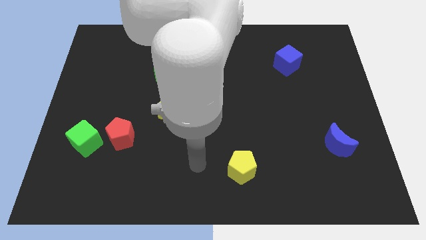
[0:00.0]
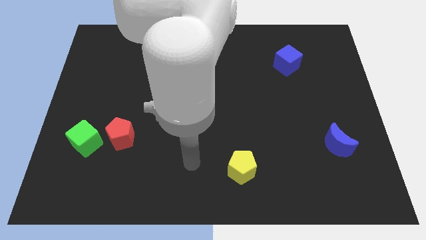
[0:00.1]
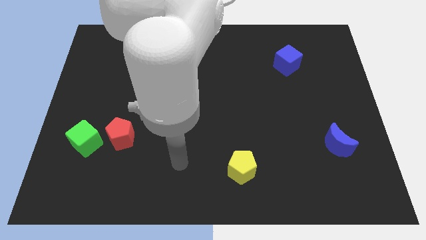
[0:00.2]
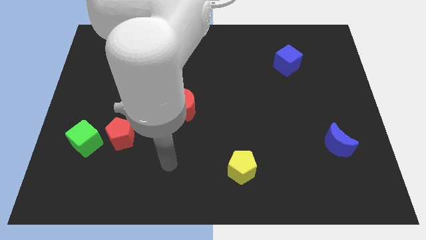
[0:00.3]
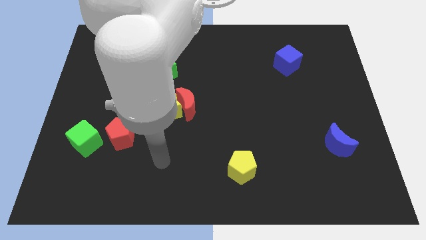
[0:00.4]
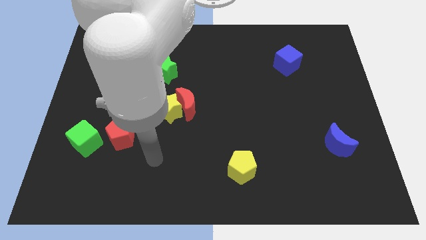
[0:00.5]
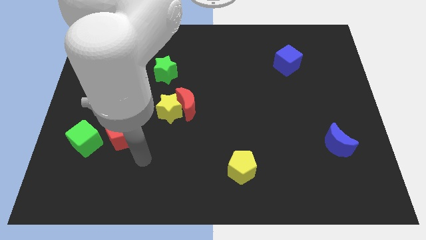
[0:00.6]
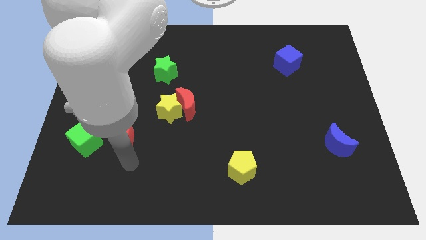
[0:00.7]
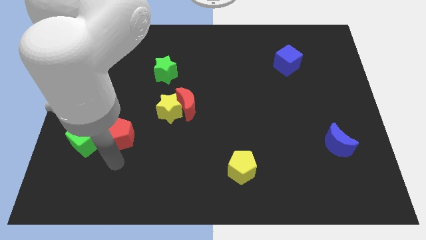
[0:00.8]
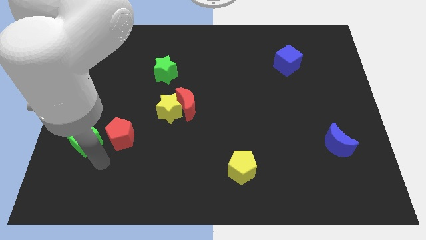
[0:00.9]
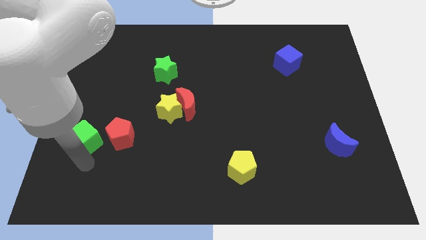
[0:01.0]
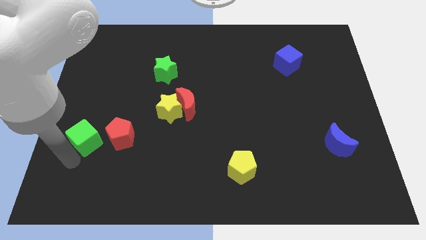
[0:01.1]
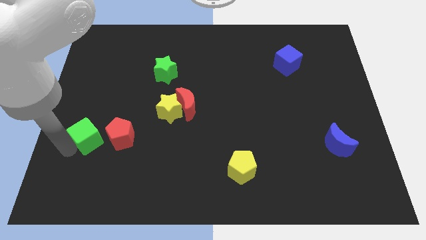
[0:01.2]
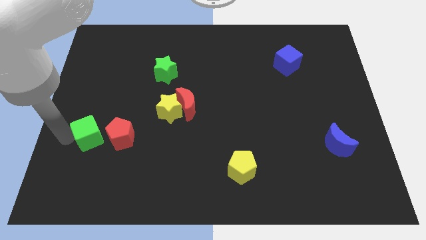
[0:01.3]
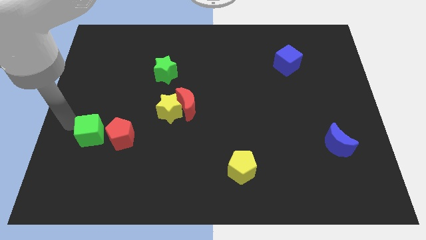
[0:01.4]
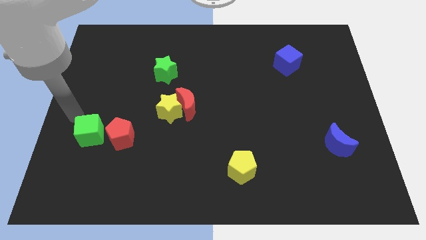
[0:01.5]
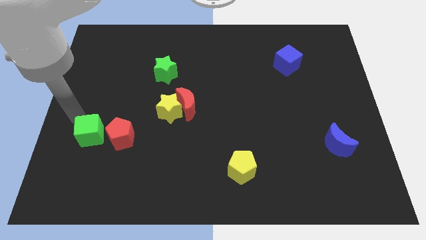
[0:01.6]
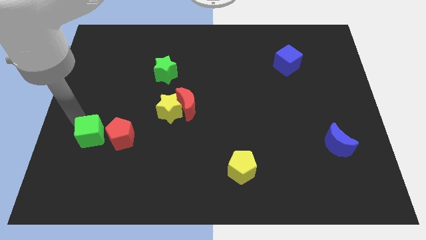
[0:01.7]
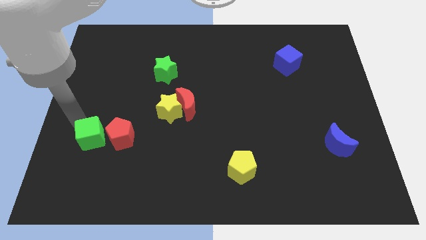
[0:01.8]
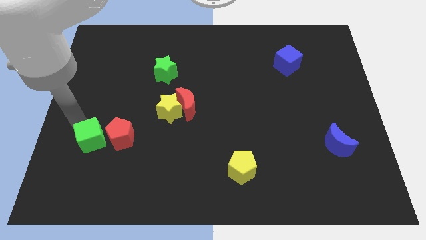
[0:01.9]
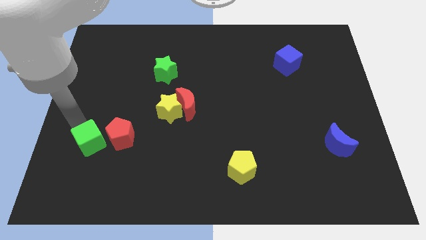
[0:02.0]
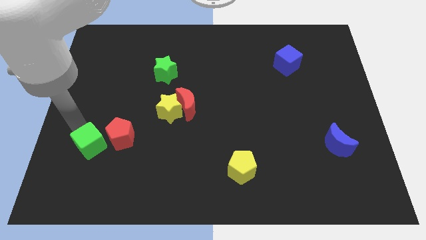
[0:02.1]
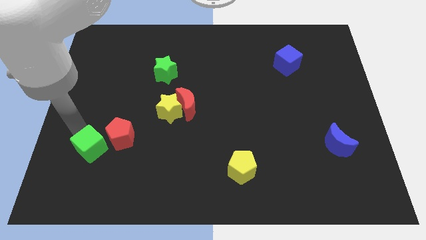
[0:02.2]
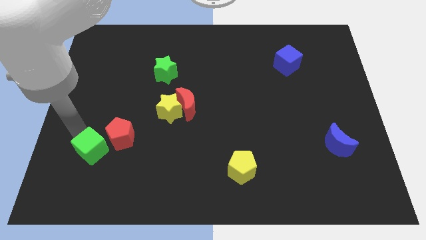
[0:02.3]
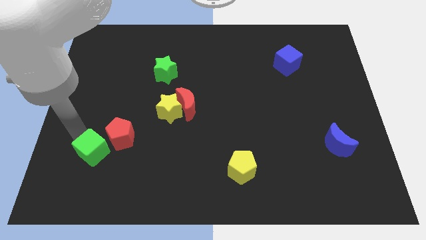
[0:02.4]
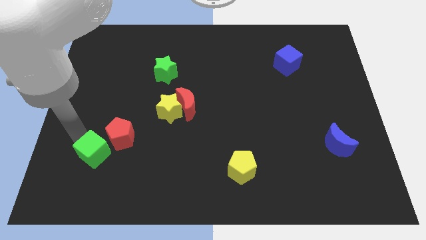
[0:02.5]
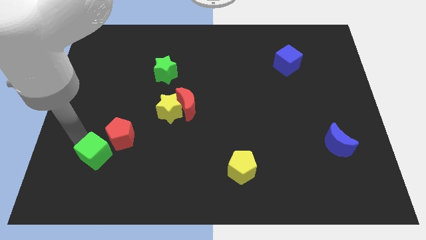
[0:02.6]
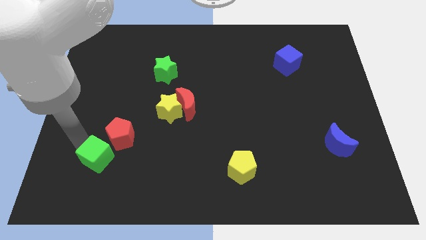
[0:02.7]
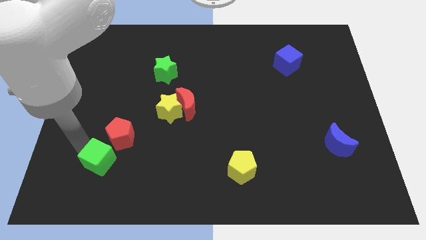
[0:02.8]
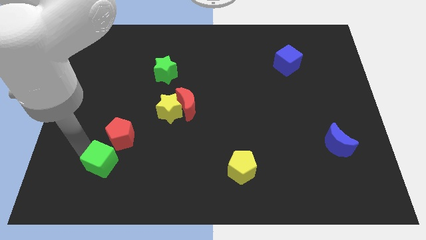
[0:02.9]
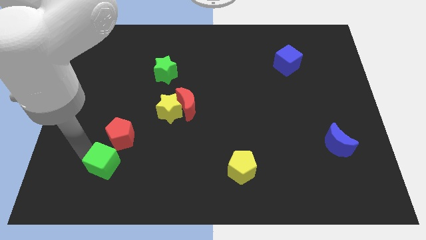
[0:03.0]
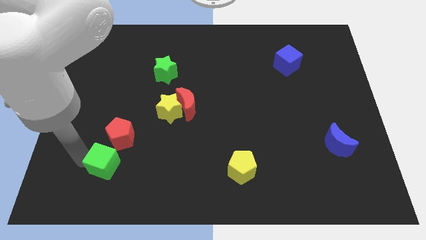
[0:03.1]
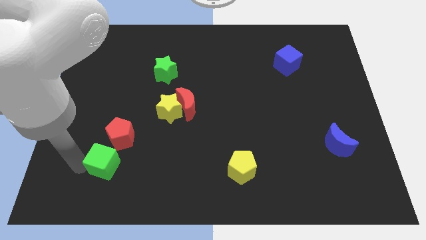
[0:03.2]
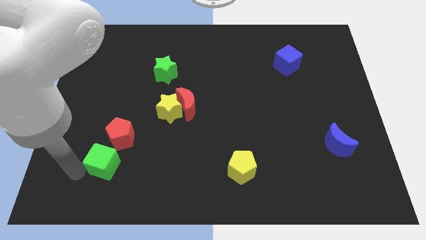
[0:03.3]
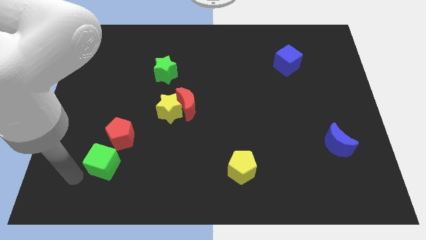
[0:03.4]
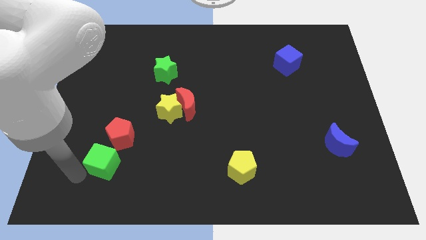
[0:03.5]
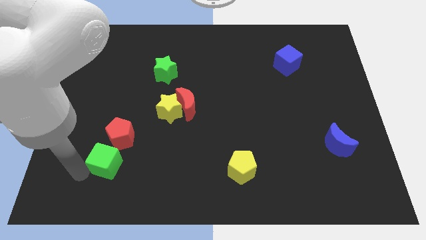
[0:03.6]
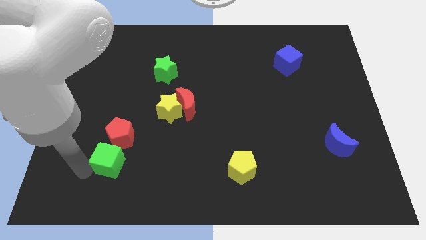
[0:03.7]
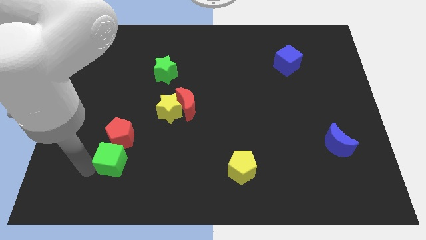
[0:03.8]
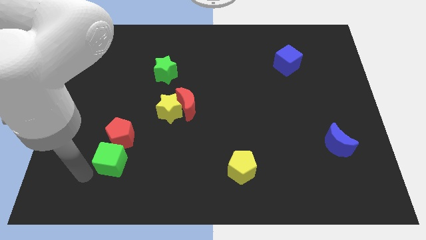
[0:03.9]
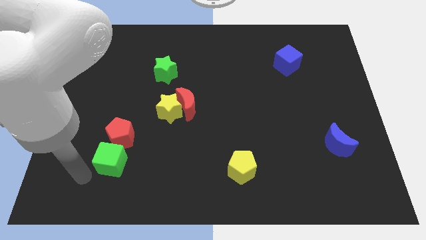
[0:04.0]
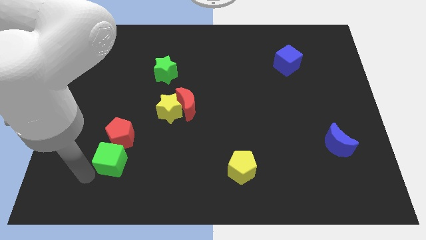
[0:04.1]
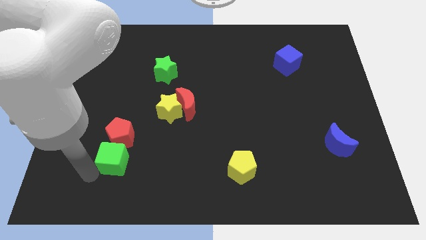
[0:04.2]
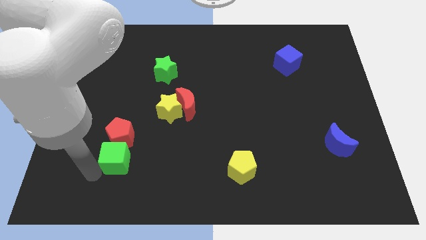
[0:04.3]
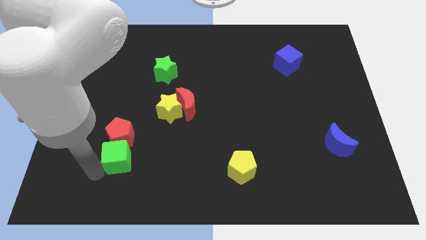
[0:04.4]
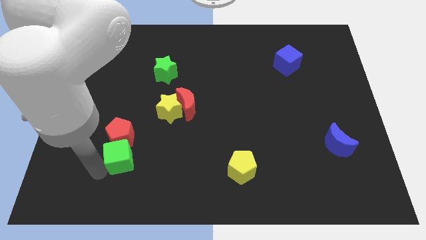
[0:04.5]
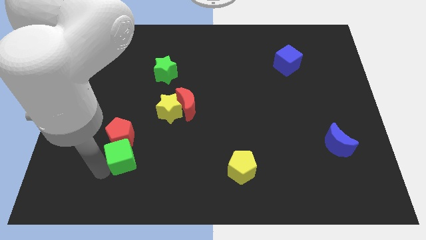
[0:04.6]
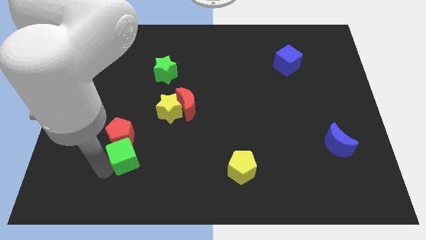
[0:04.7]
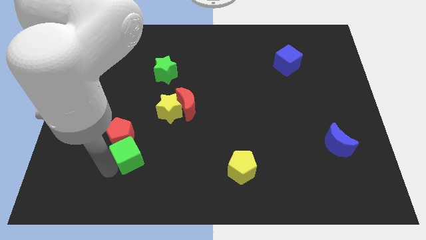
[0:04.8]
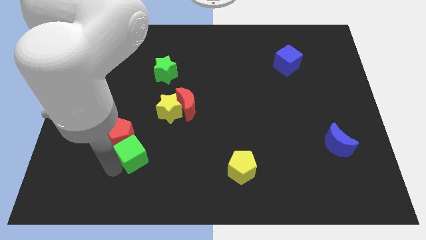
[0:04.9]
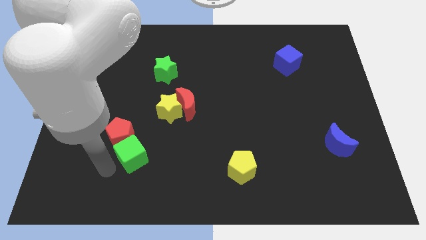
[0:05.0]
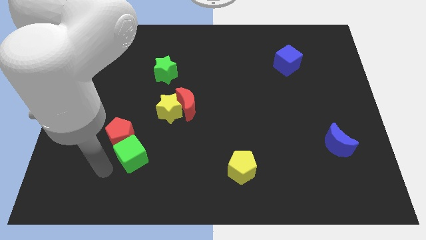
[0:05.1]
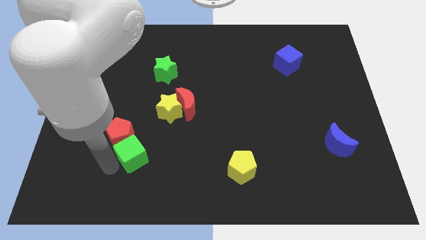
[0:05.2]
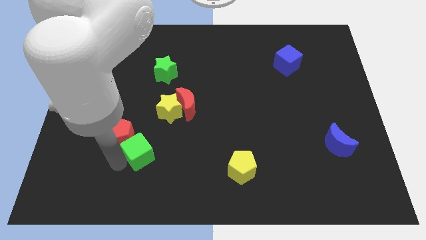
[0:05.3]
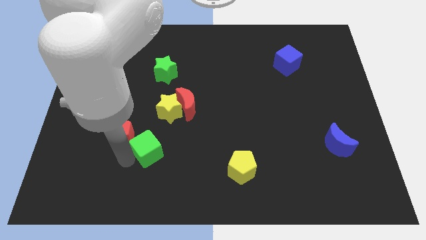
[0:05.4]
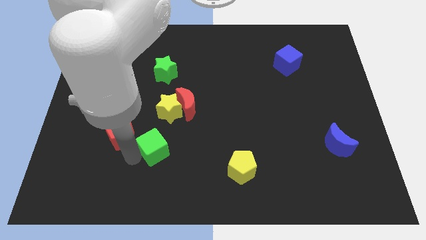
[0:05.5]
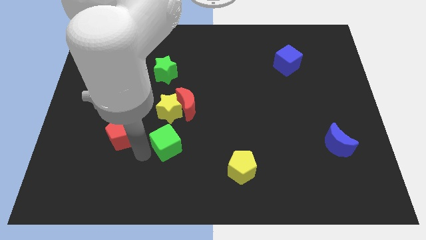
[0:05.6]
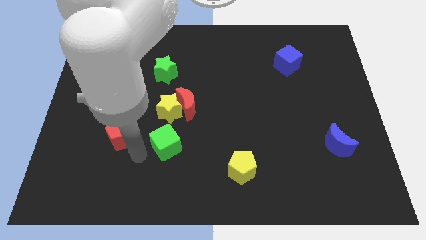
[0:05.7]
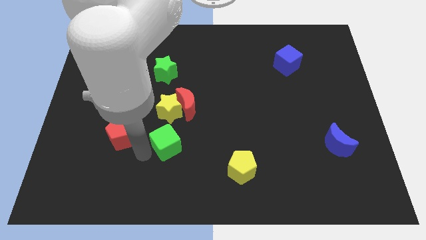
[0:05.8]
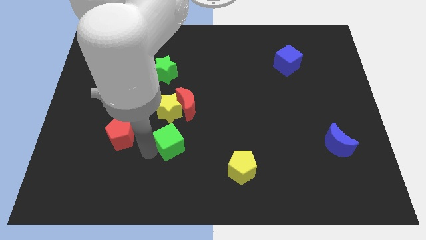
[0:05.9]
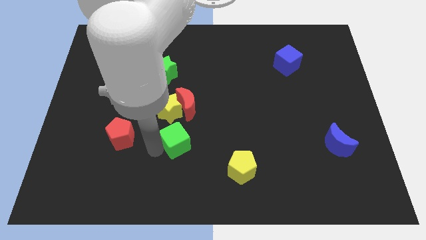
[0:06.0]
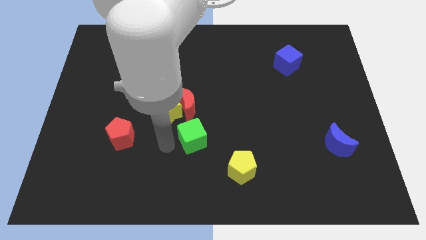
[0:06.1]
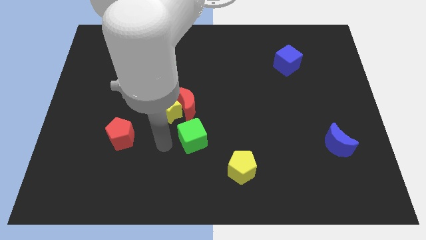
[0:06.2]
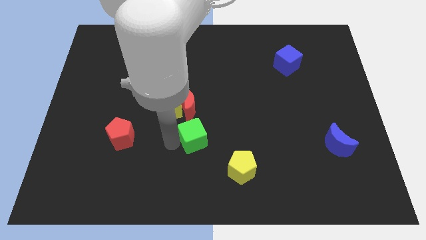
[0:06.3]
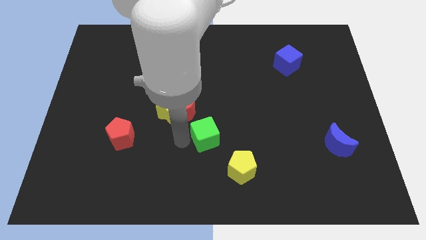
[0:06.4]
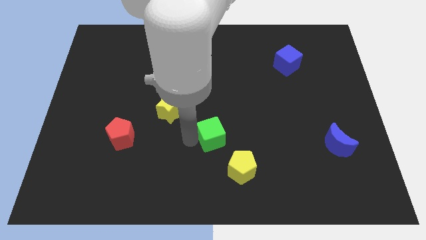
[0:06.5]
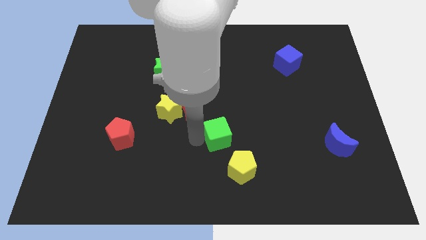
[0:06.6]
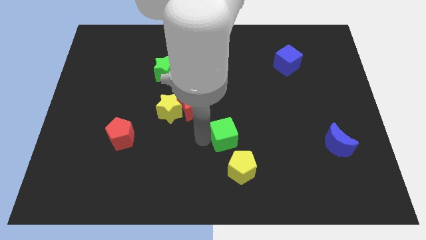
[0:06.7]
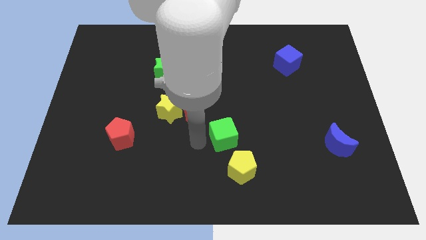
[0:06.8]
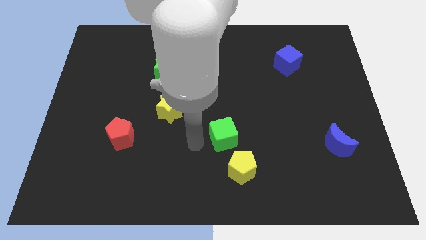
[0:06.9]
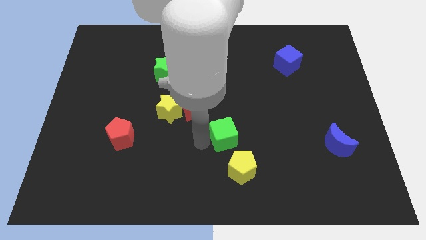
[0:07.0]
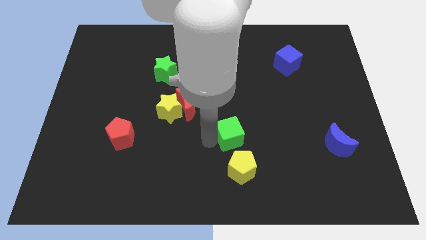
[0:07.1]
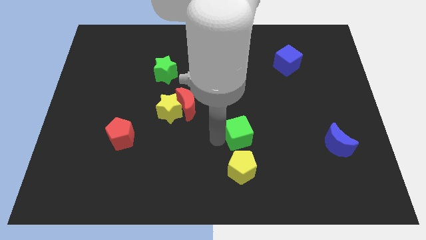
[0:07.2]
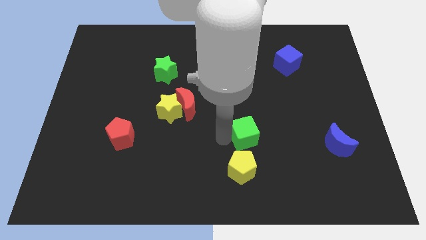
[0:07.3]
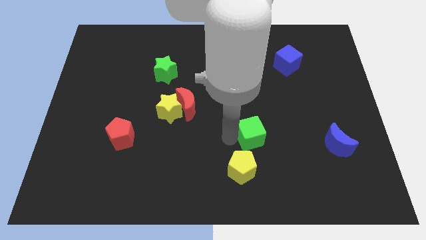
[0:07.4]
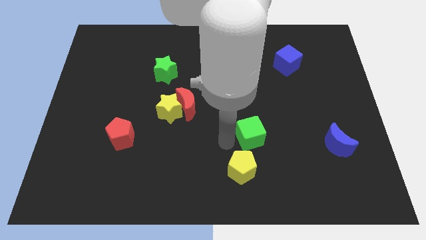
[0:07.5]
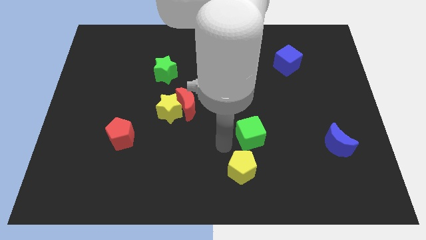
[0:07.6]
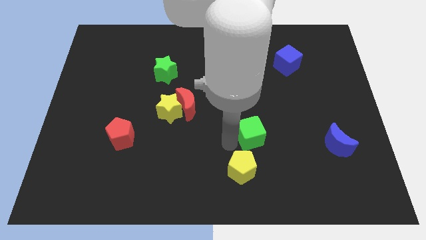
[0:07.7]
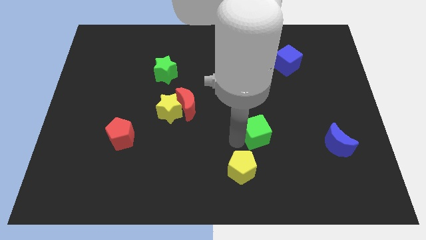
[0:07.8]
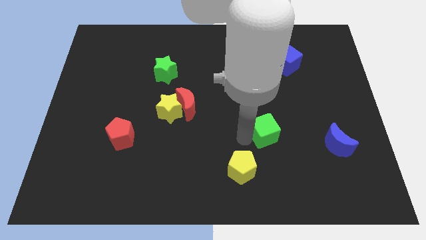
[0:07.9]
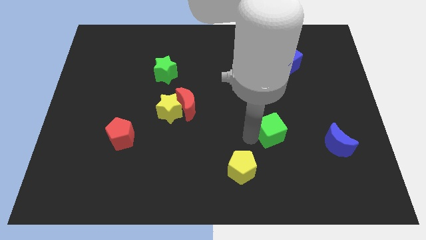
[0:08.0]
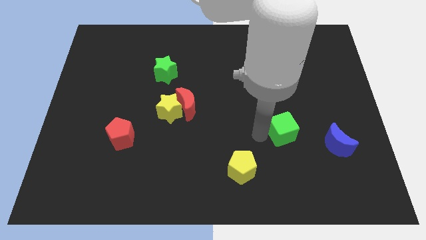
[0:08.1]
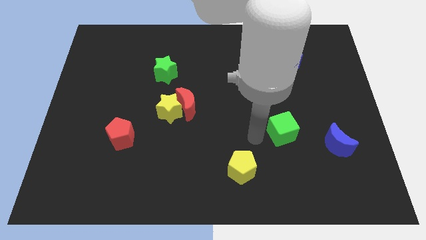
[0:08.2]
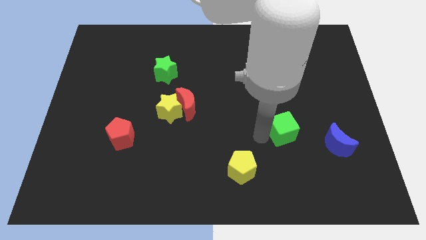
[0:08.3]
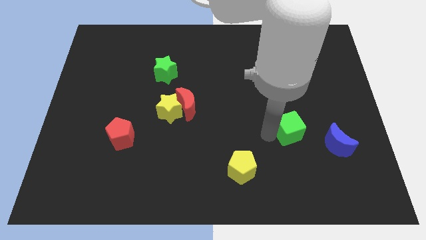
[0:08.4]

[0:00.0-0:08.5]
slide the green cube to the top left side of the blue moon

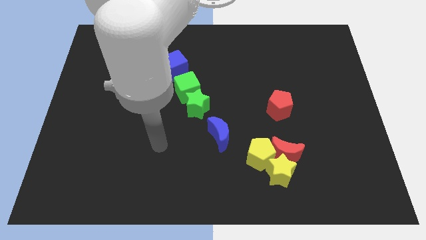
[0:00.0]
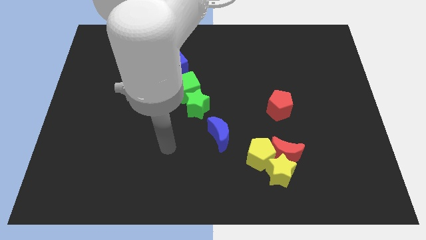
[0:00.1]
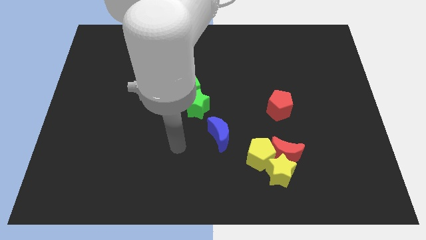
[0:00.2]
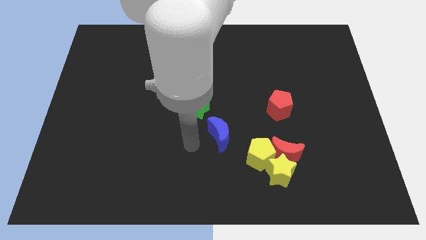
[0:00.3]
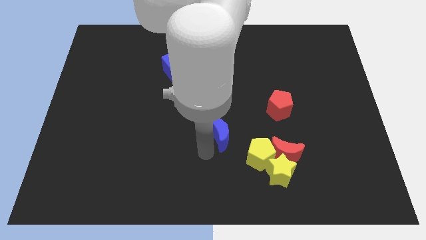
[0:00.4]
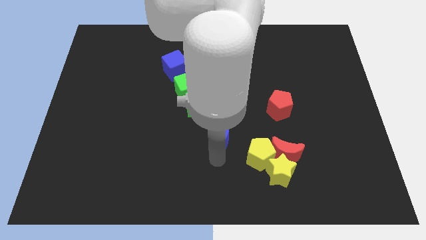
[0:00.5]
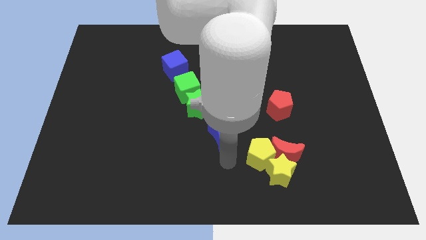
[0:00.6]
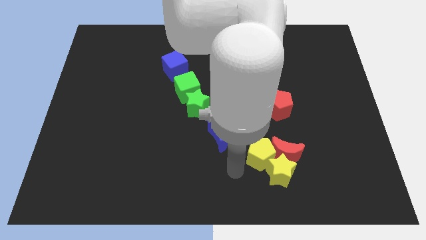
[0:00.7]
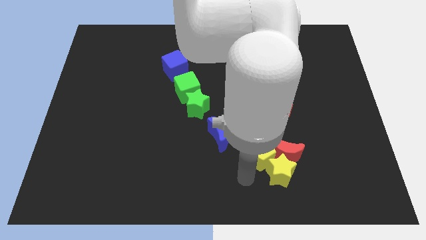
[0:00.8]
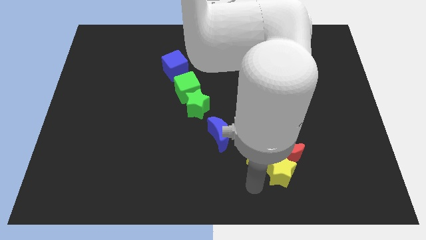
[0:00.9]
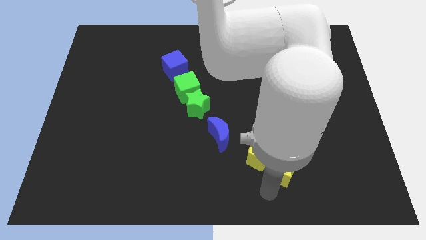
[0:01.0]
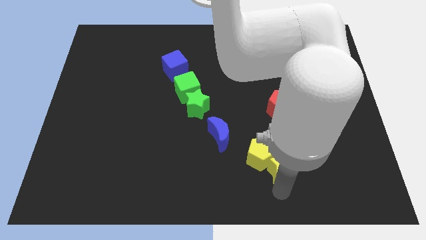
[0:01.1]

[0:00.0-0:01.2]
push the red moon to the right side of the blue moon
